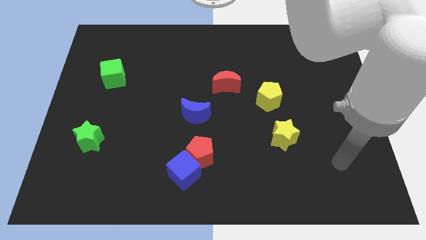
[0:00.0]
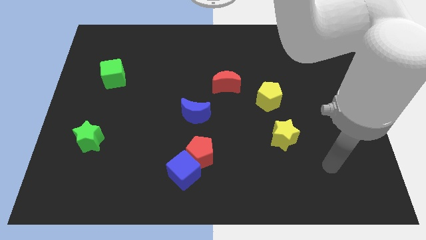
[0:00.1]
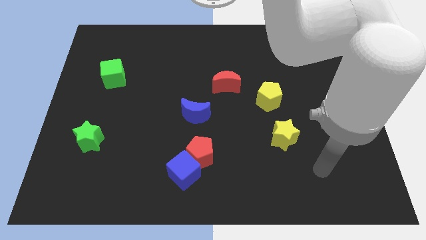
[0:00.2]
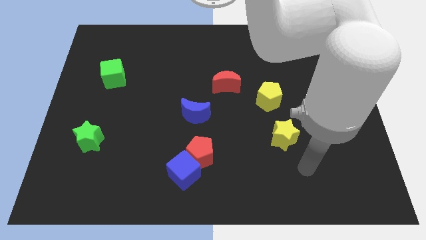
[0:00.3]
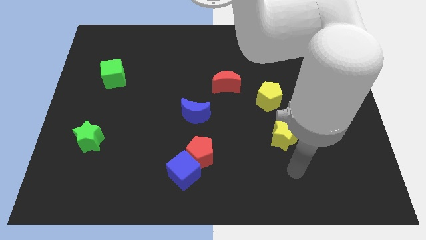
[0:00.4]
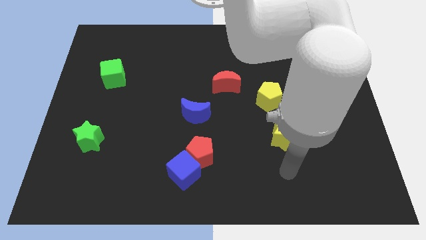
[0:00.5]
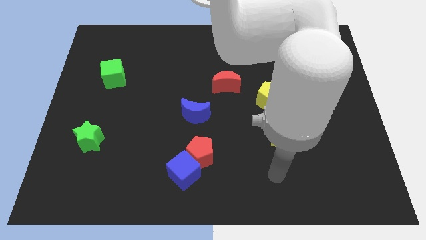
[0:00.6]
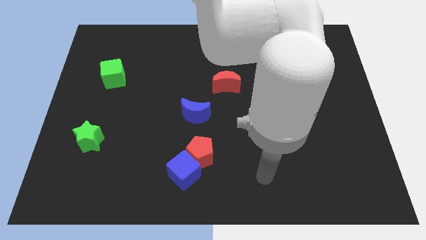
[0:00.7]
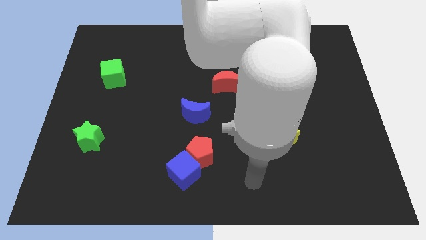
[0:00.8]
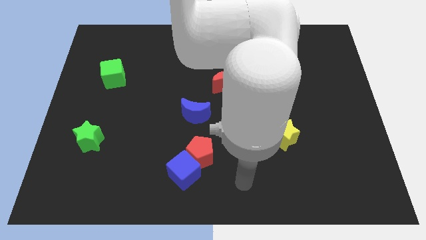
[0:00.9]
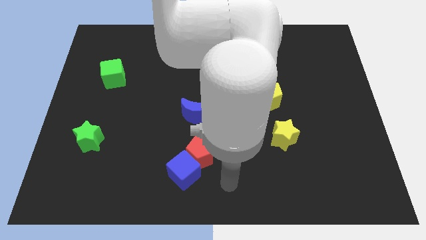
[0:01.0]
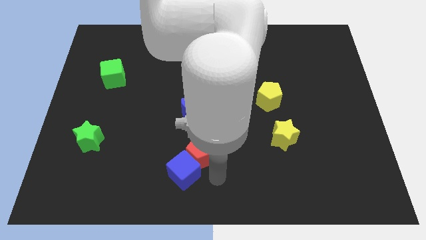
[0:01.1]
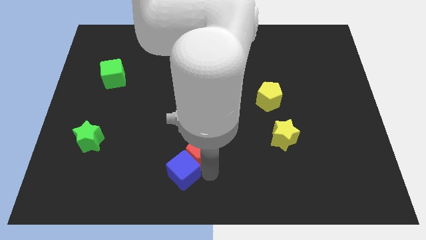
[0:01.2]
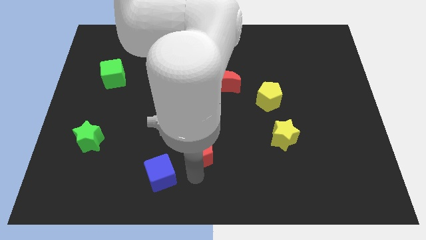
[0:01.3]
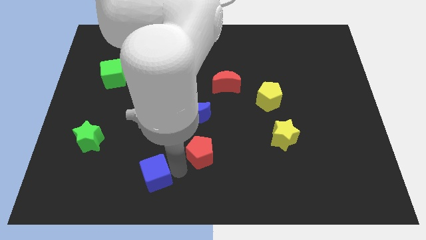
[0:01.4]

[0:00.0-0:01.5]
pull the red pentagon apart from the blue cube

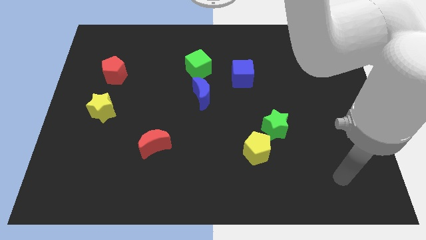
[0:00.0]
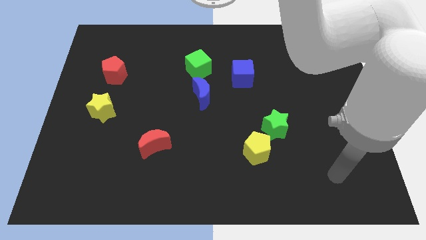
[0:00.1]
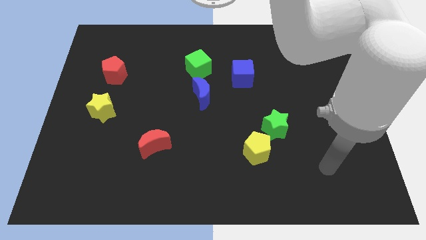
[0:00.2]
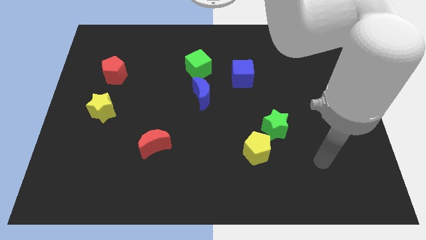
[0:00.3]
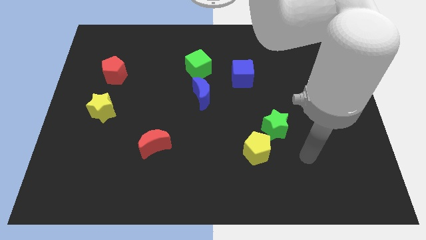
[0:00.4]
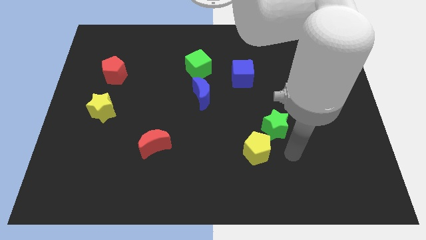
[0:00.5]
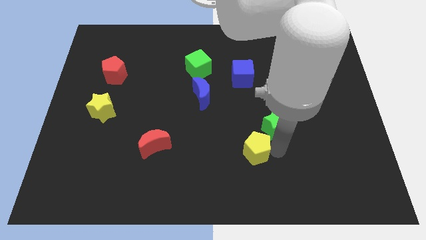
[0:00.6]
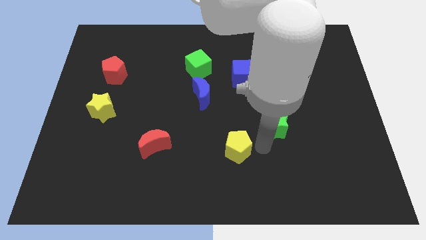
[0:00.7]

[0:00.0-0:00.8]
pull the green star apart from the yellow pentagon

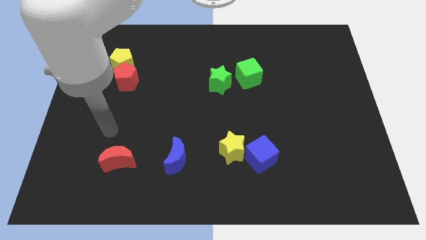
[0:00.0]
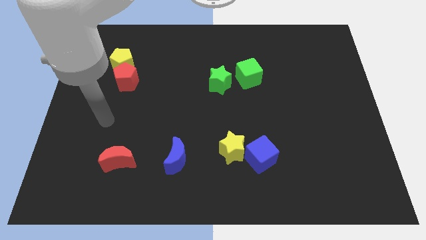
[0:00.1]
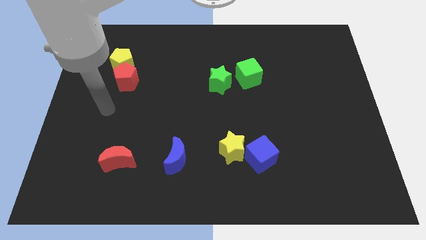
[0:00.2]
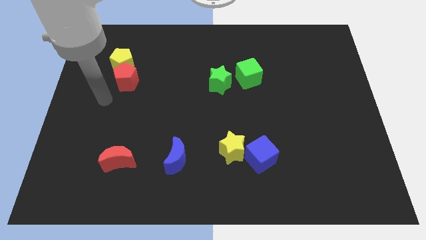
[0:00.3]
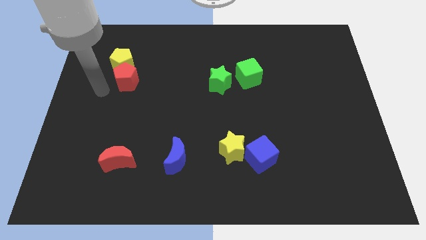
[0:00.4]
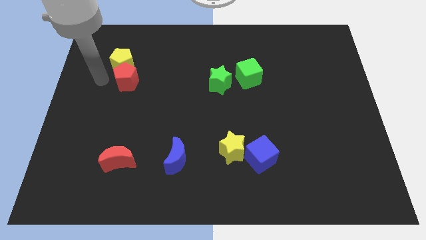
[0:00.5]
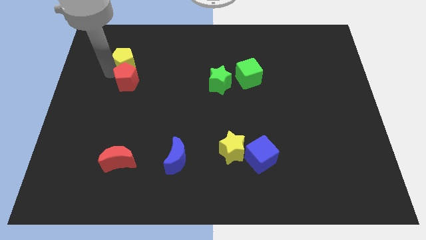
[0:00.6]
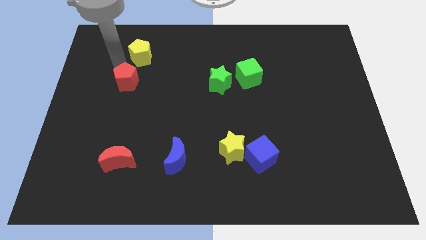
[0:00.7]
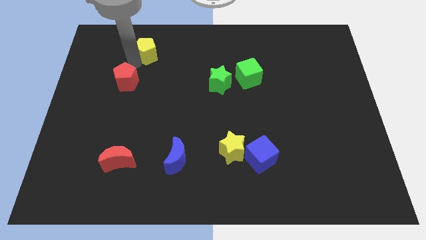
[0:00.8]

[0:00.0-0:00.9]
move the red pentagon away from the yellow pentagon

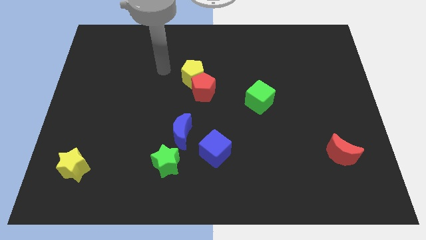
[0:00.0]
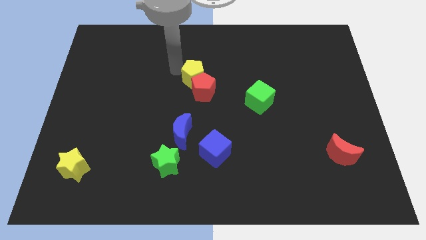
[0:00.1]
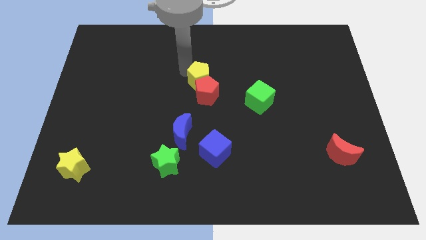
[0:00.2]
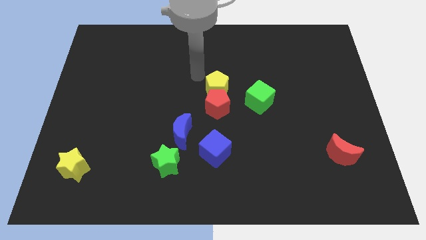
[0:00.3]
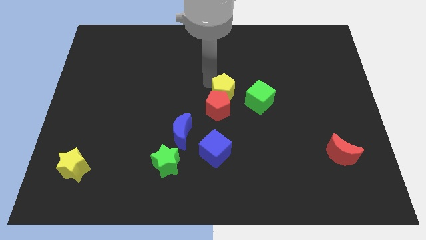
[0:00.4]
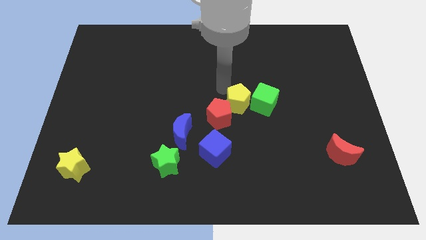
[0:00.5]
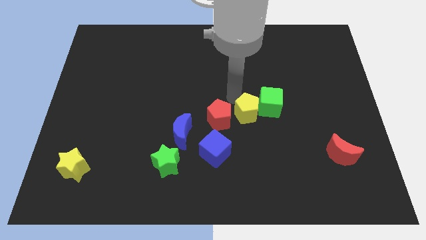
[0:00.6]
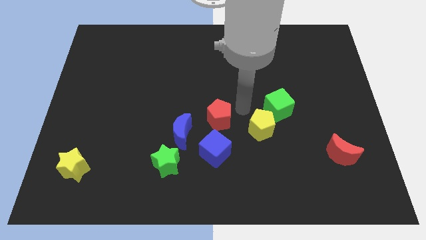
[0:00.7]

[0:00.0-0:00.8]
pull the red pentagon apart from the yellow pentagon

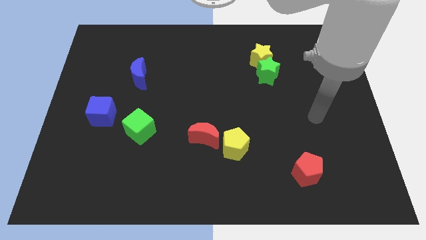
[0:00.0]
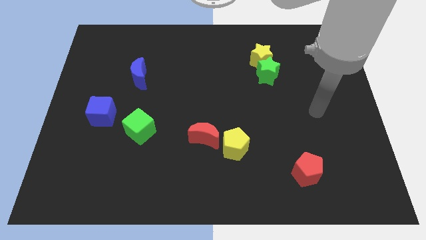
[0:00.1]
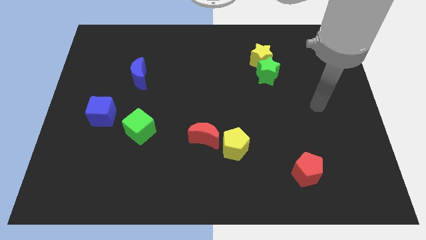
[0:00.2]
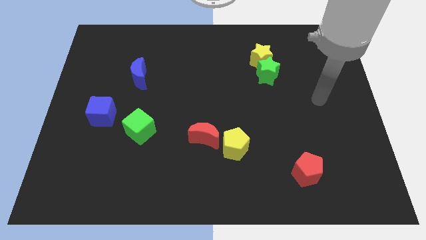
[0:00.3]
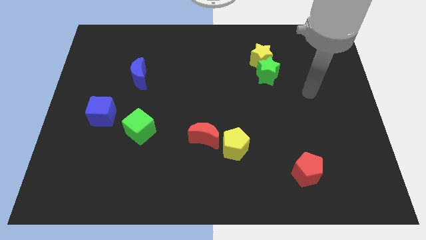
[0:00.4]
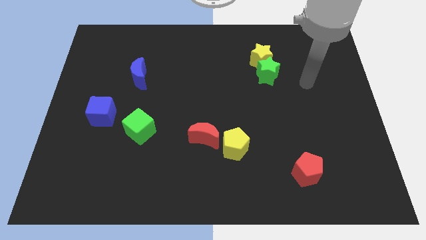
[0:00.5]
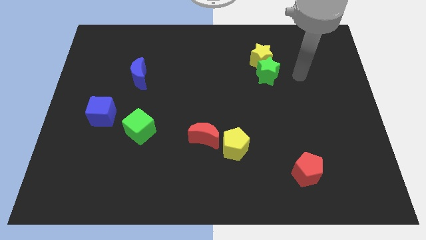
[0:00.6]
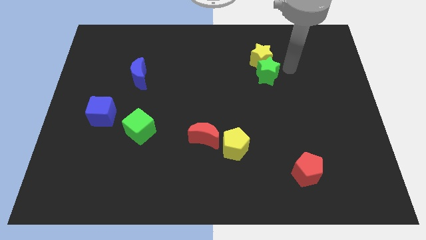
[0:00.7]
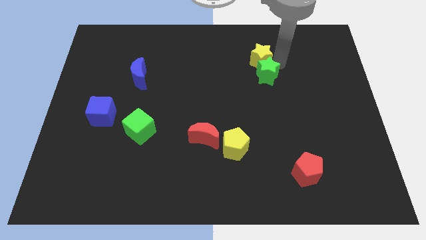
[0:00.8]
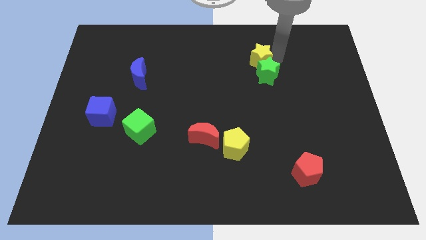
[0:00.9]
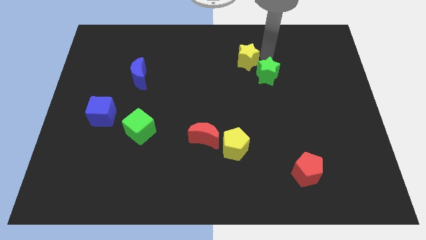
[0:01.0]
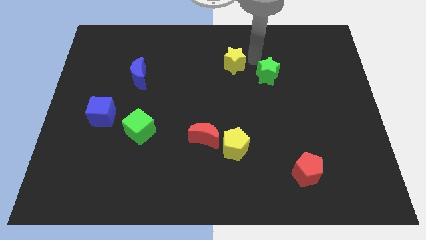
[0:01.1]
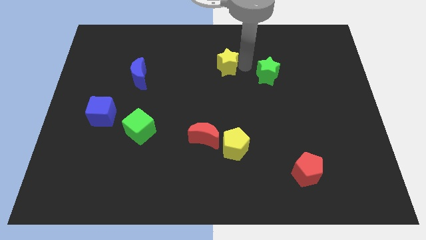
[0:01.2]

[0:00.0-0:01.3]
pull the green star apart from the yellow star

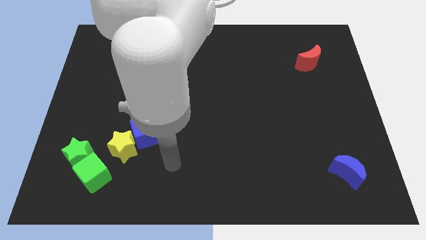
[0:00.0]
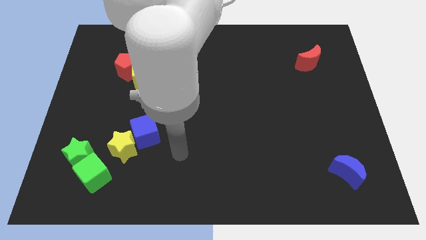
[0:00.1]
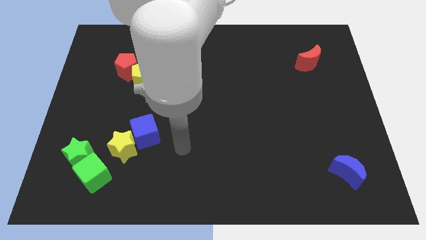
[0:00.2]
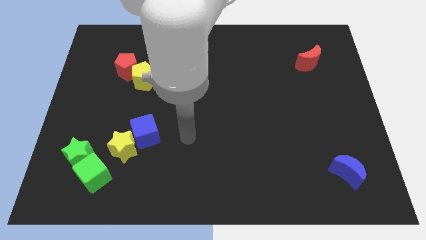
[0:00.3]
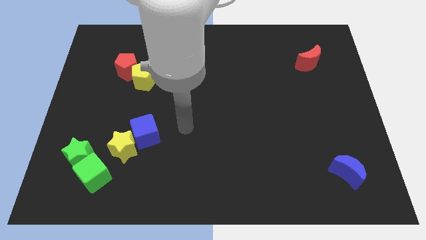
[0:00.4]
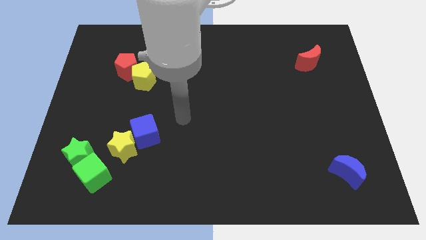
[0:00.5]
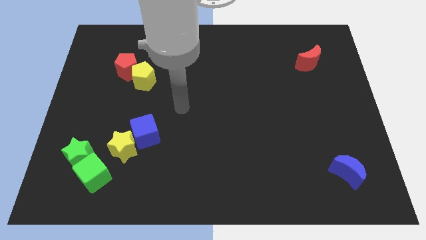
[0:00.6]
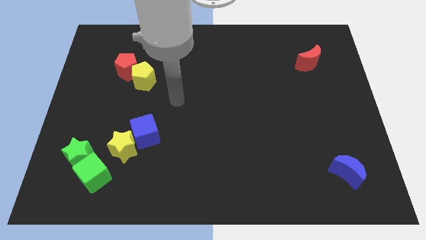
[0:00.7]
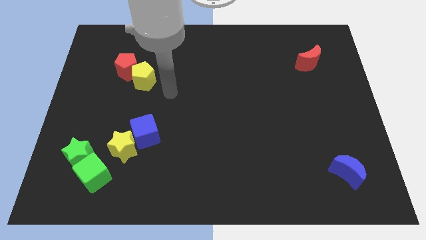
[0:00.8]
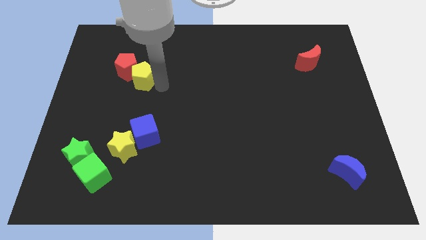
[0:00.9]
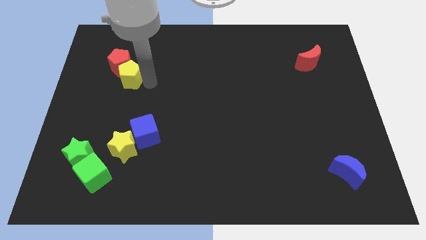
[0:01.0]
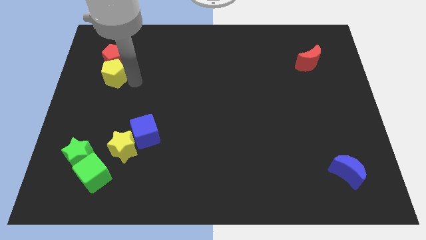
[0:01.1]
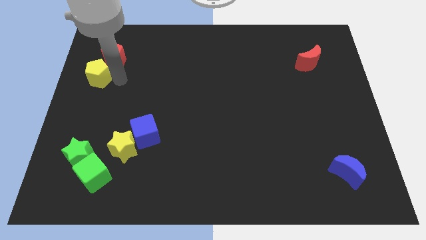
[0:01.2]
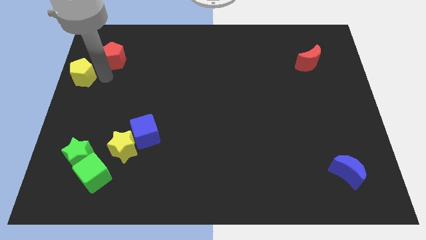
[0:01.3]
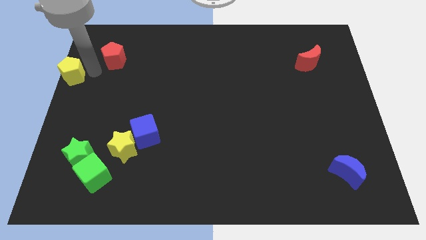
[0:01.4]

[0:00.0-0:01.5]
separate the red pentagon from the yellow pentagon

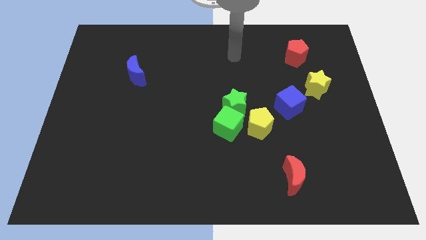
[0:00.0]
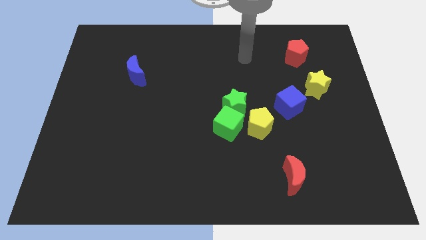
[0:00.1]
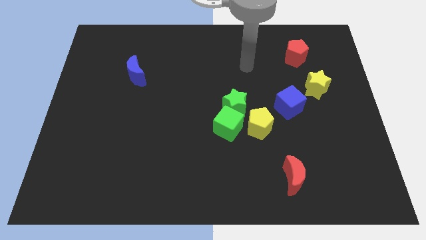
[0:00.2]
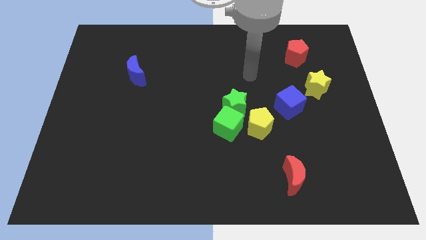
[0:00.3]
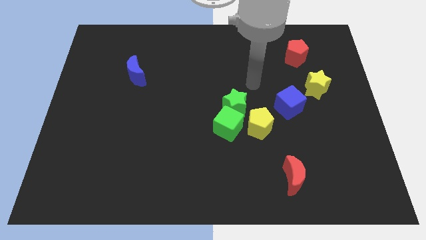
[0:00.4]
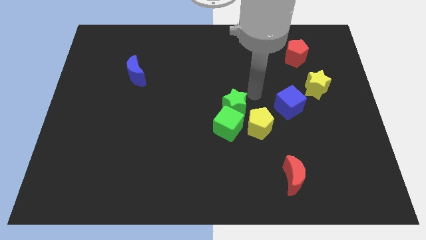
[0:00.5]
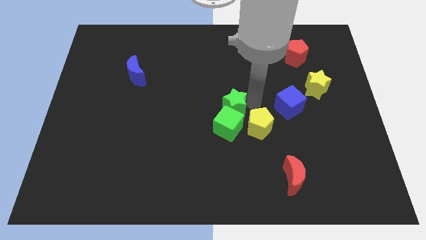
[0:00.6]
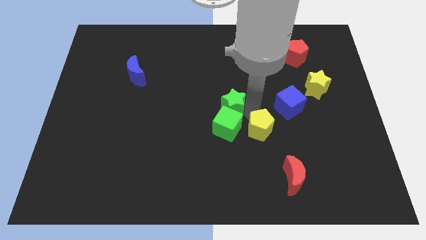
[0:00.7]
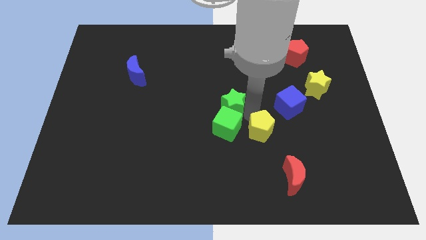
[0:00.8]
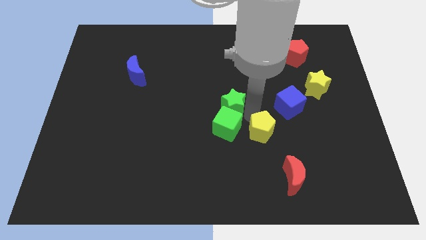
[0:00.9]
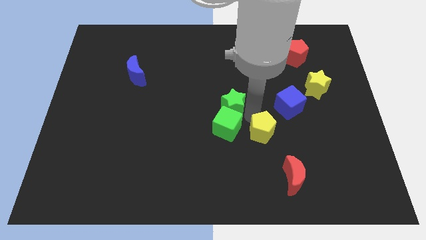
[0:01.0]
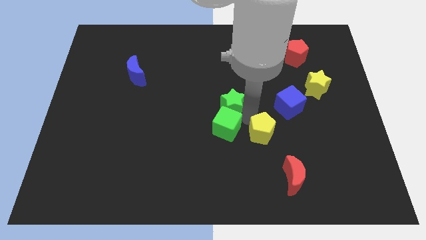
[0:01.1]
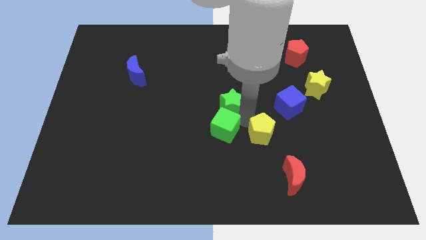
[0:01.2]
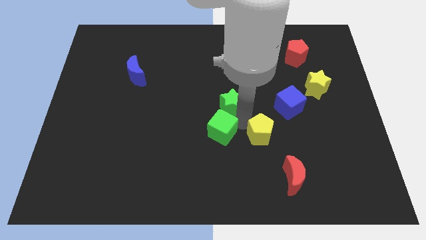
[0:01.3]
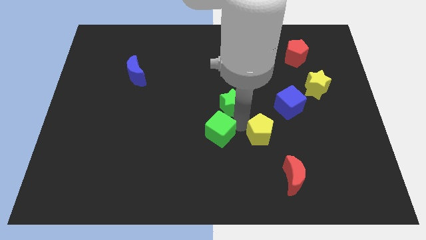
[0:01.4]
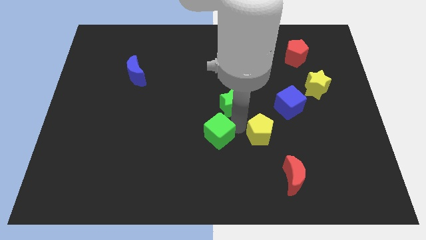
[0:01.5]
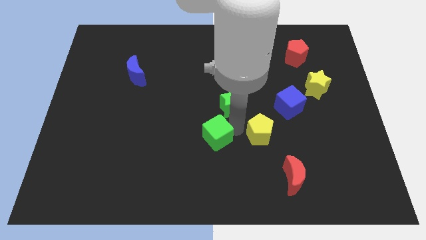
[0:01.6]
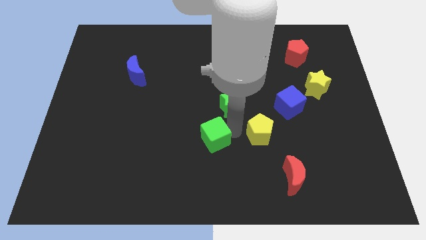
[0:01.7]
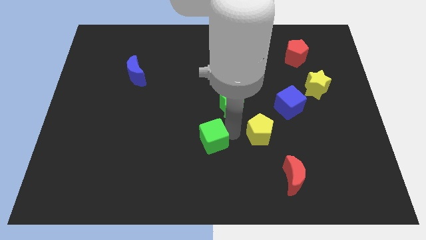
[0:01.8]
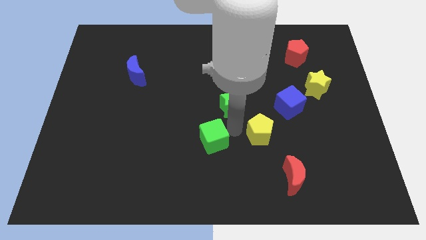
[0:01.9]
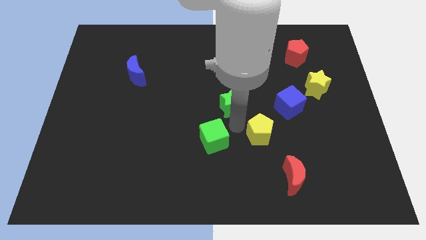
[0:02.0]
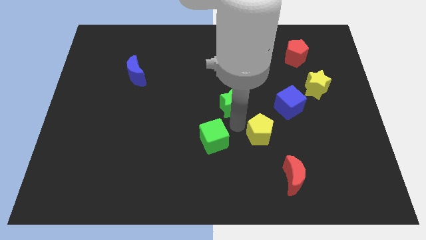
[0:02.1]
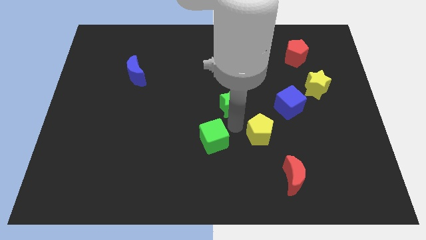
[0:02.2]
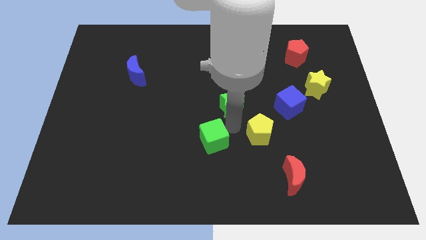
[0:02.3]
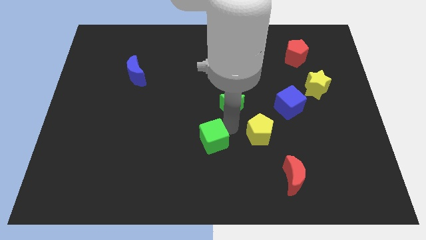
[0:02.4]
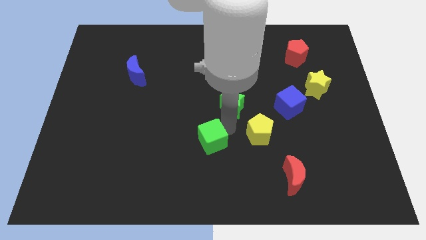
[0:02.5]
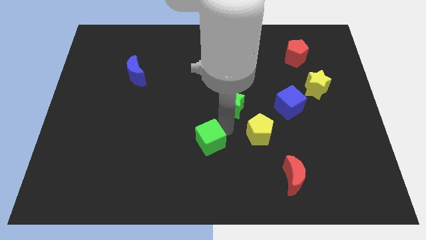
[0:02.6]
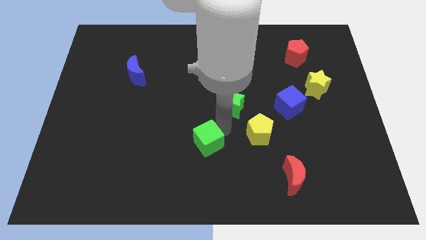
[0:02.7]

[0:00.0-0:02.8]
move the green cube away from the green star and yellow pentagon
